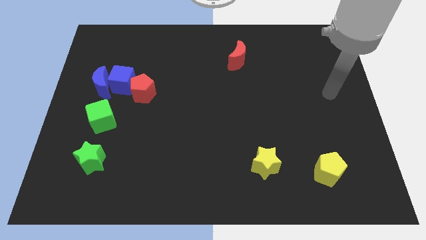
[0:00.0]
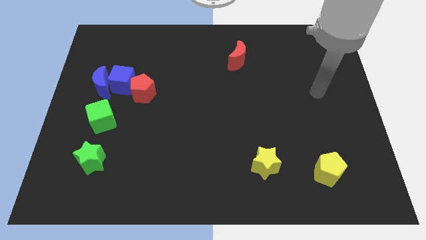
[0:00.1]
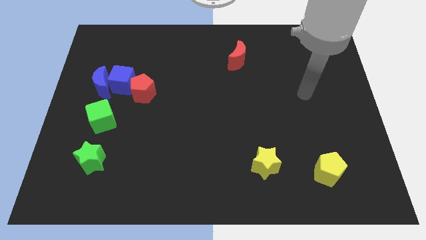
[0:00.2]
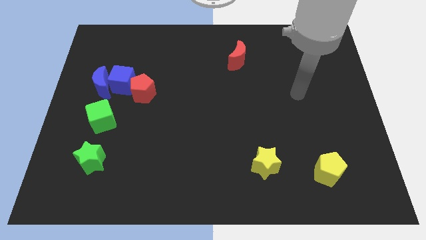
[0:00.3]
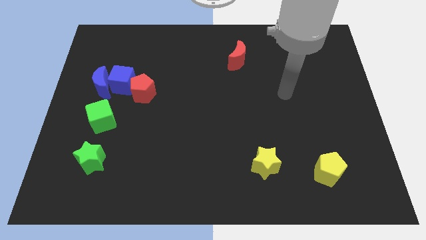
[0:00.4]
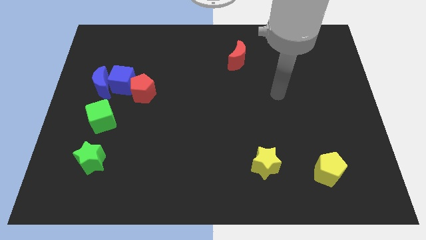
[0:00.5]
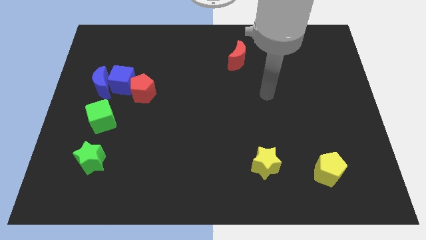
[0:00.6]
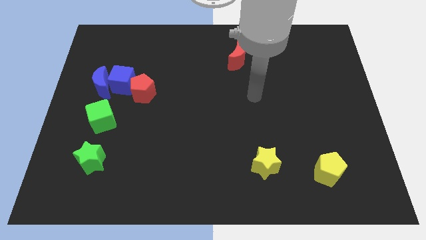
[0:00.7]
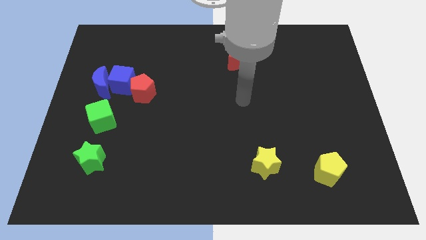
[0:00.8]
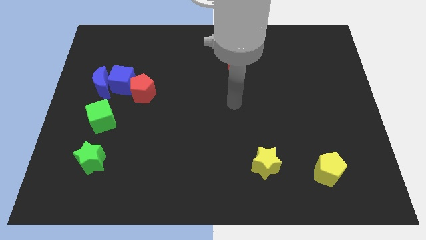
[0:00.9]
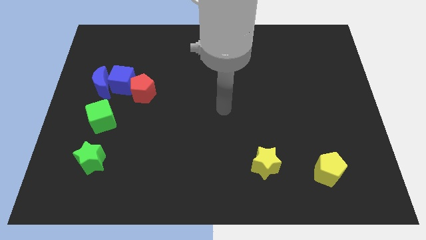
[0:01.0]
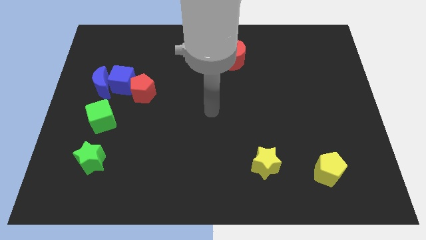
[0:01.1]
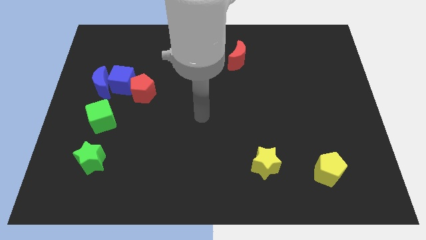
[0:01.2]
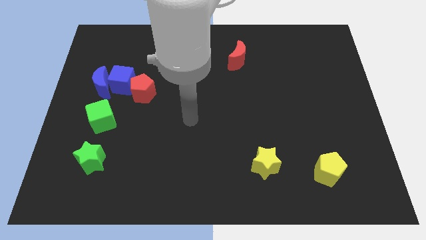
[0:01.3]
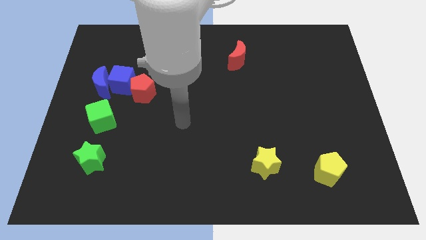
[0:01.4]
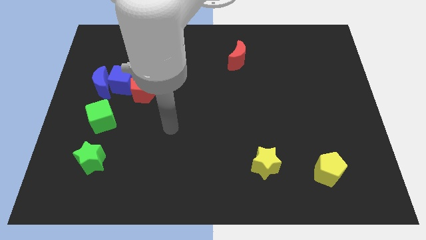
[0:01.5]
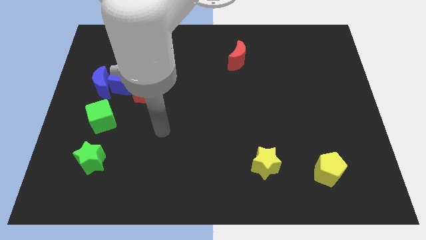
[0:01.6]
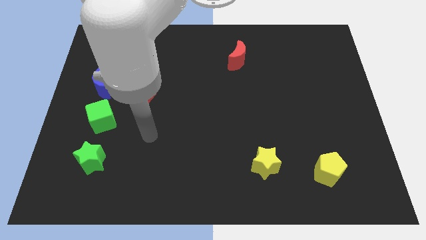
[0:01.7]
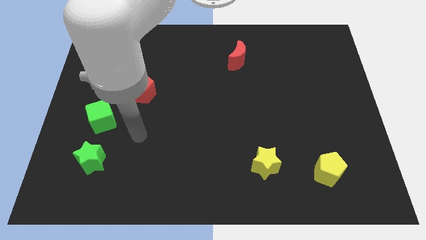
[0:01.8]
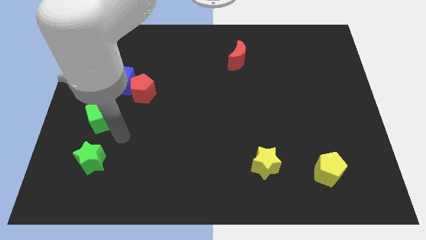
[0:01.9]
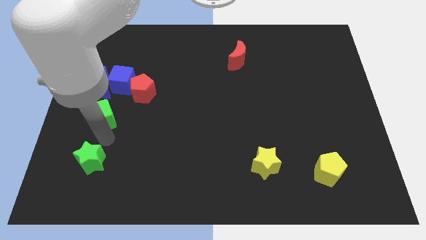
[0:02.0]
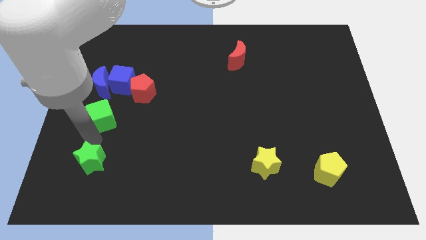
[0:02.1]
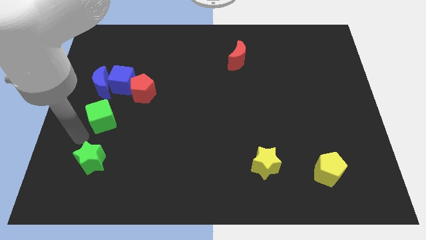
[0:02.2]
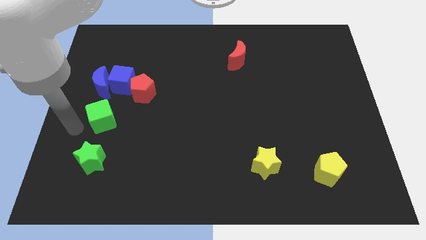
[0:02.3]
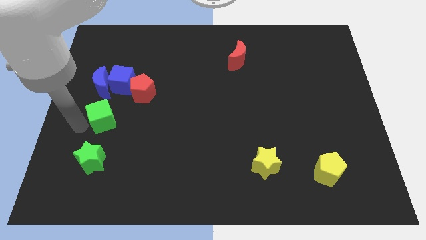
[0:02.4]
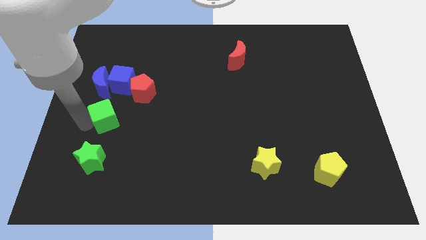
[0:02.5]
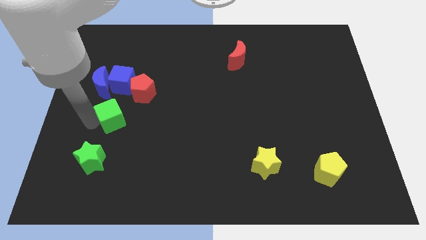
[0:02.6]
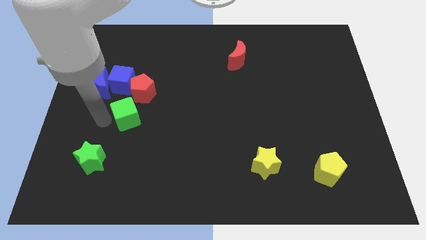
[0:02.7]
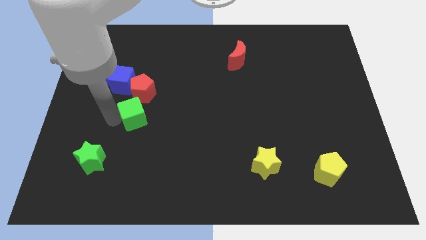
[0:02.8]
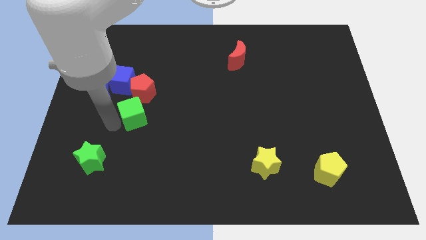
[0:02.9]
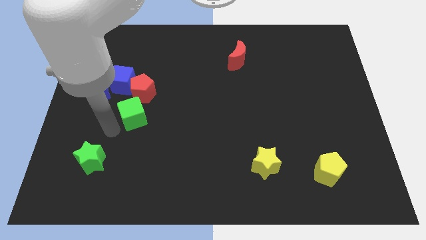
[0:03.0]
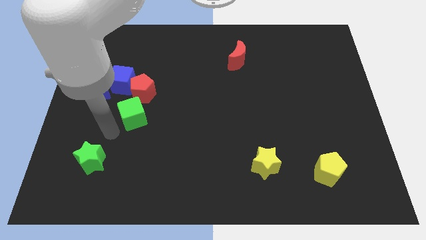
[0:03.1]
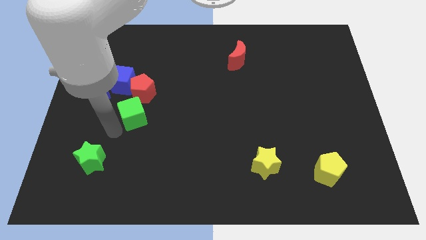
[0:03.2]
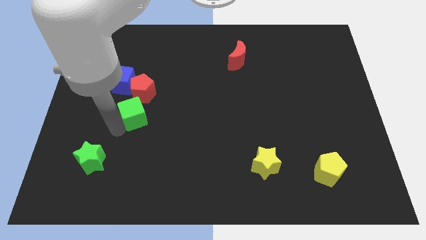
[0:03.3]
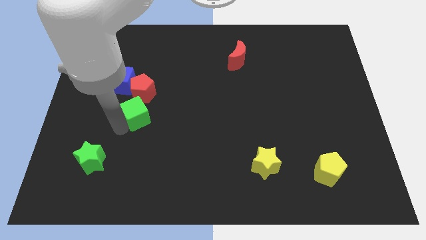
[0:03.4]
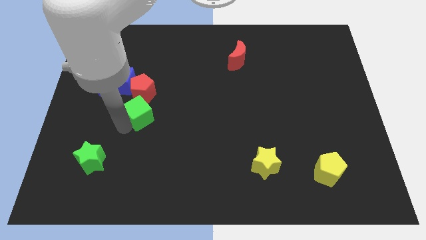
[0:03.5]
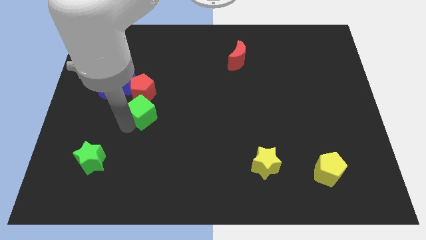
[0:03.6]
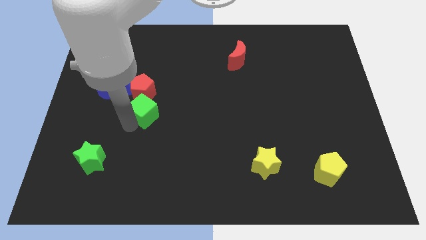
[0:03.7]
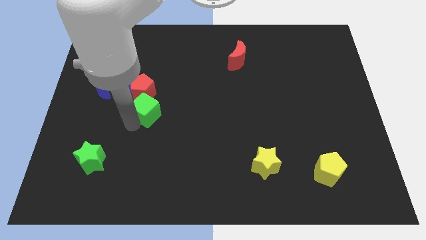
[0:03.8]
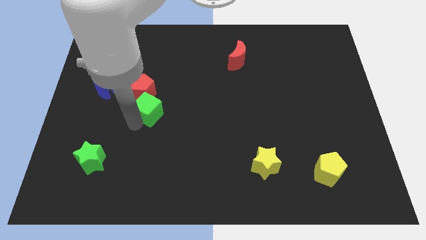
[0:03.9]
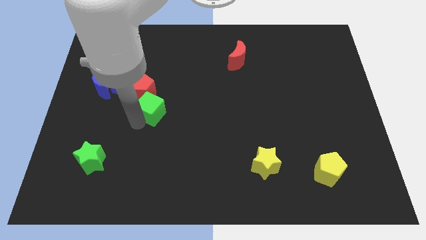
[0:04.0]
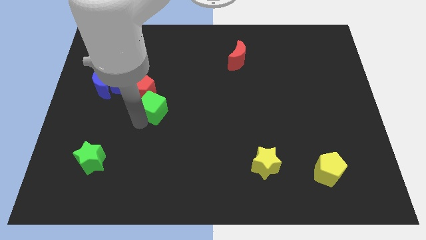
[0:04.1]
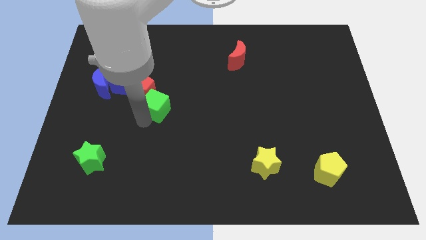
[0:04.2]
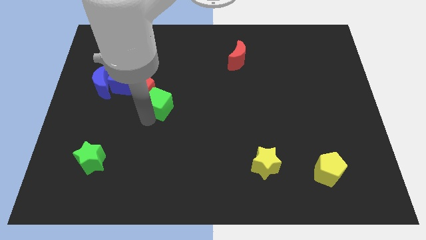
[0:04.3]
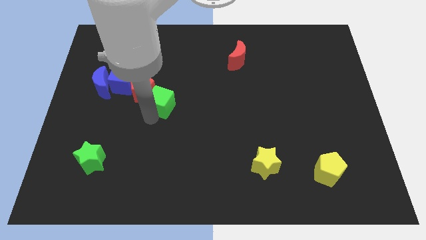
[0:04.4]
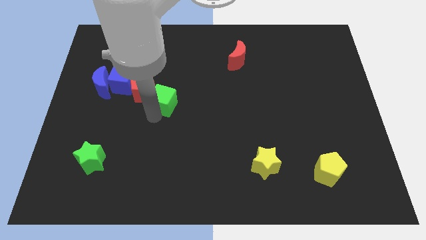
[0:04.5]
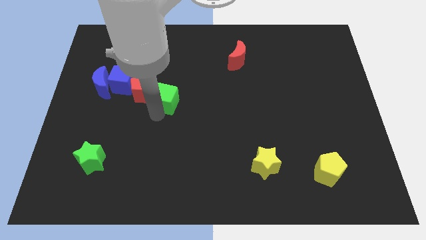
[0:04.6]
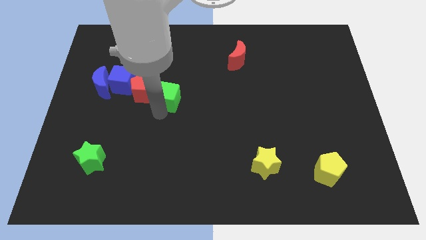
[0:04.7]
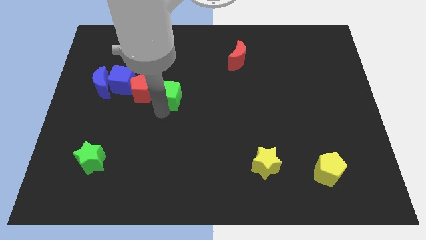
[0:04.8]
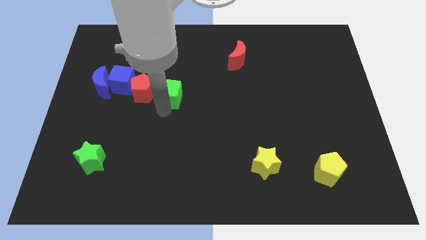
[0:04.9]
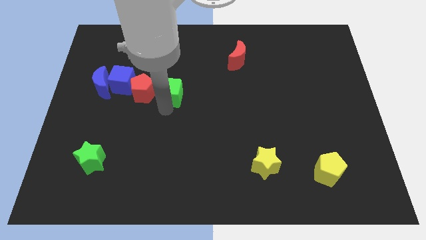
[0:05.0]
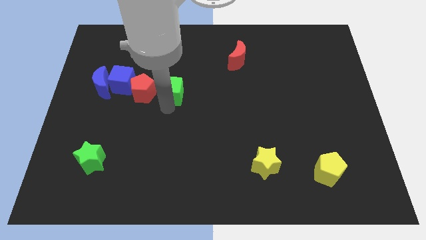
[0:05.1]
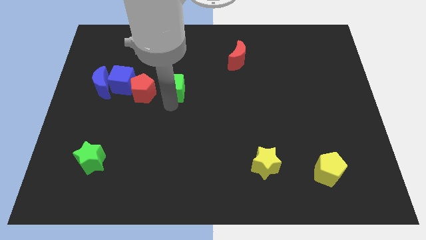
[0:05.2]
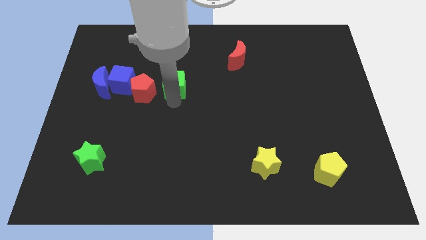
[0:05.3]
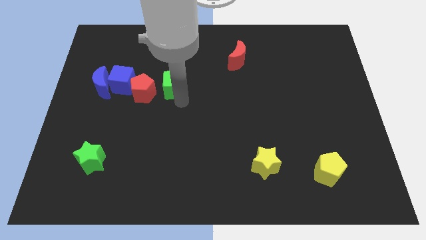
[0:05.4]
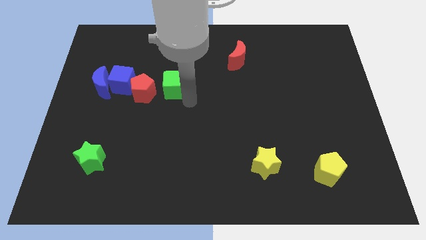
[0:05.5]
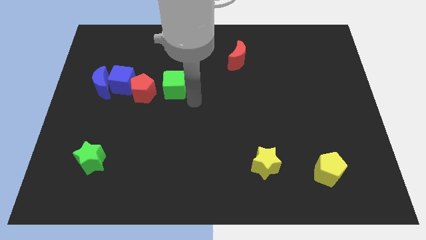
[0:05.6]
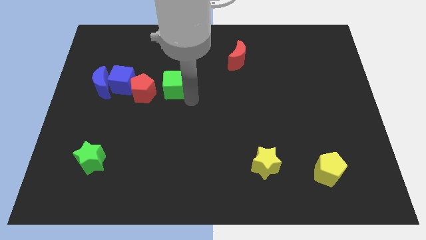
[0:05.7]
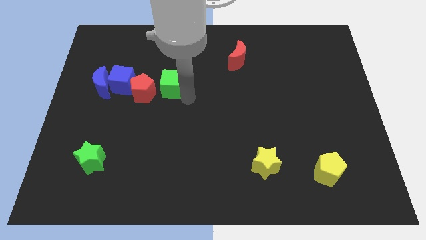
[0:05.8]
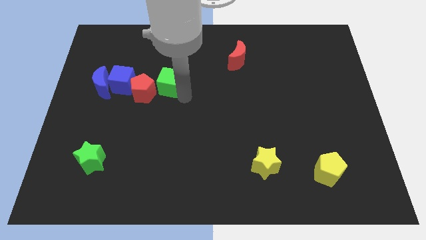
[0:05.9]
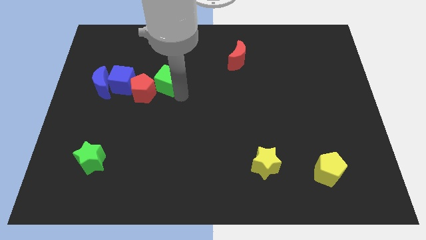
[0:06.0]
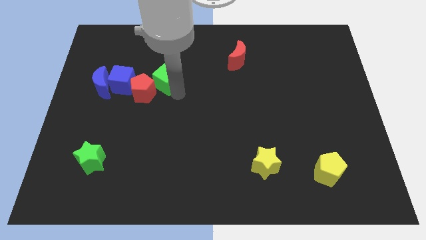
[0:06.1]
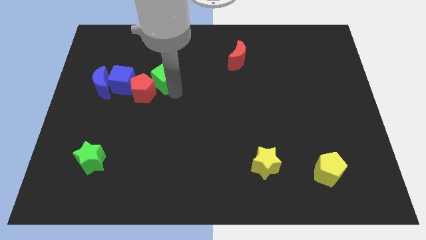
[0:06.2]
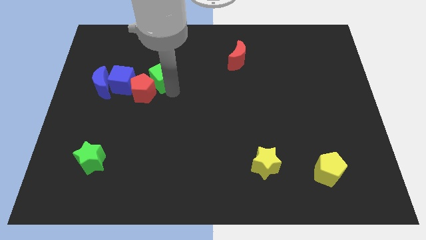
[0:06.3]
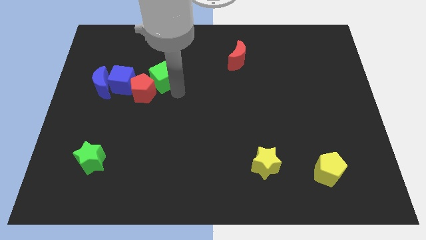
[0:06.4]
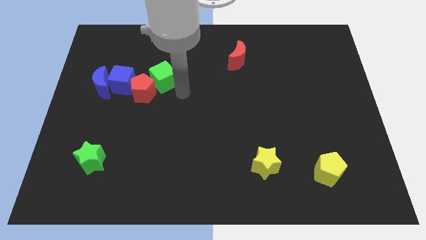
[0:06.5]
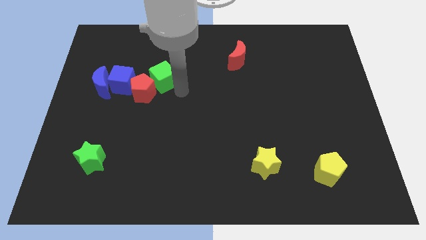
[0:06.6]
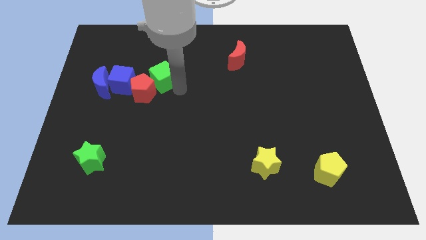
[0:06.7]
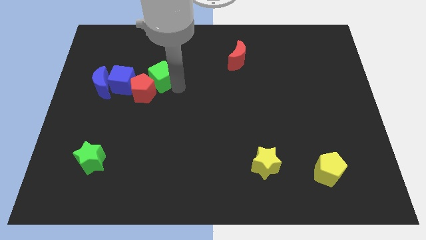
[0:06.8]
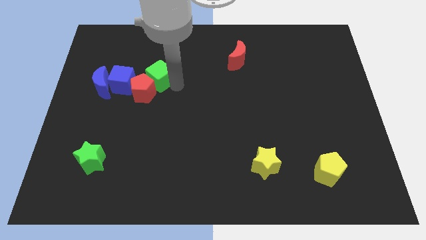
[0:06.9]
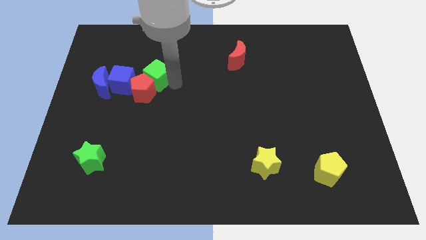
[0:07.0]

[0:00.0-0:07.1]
slide the green cube diagonally up and to the right of the blue cube

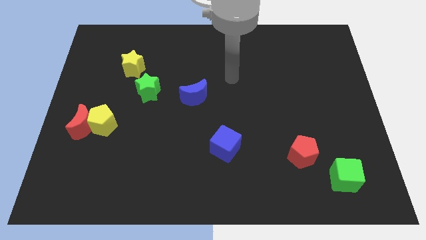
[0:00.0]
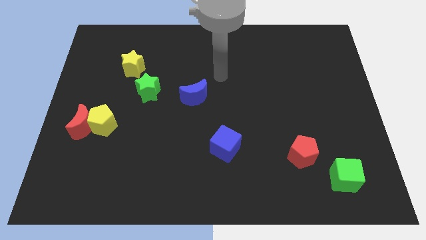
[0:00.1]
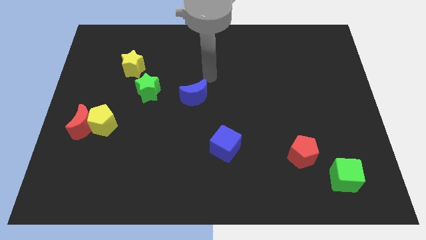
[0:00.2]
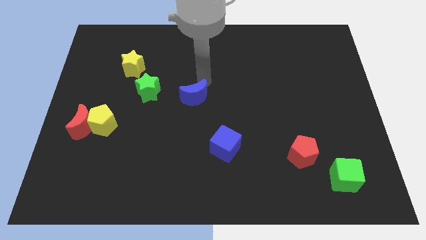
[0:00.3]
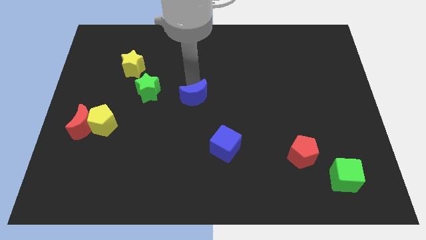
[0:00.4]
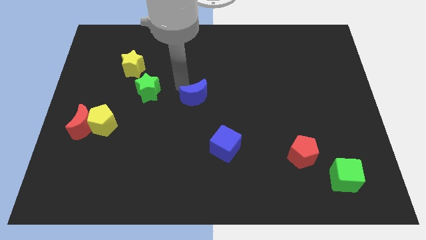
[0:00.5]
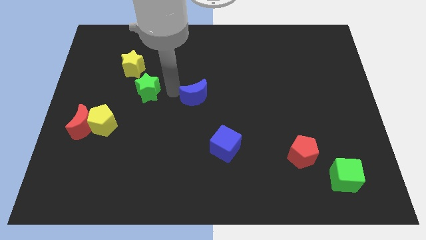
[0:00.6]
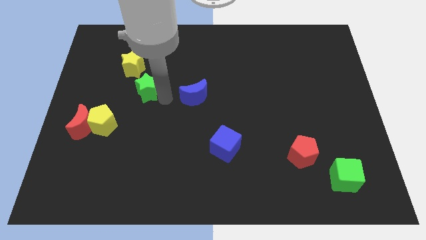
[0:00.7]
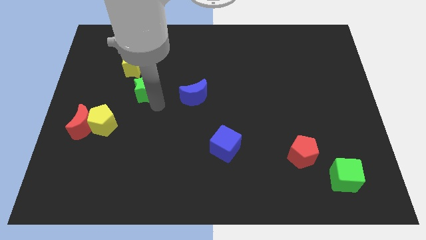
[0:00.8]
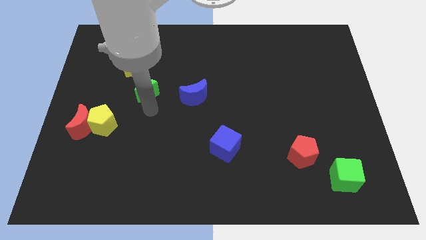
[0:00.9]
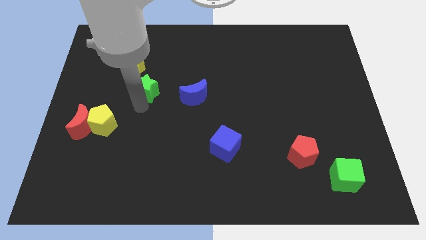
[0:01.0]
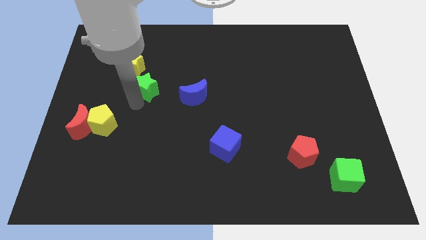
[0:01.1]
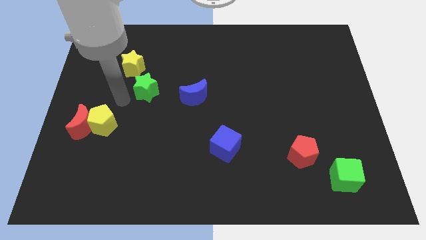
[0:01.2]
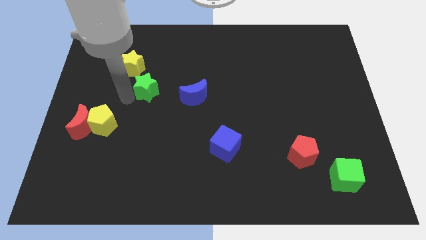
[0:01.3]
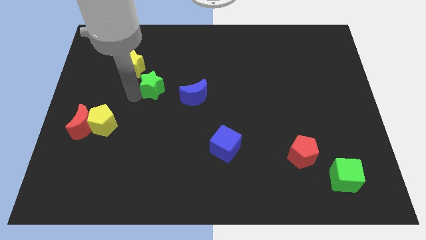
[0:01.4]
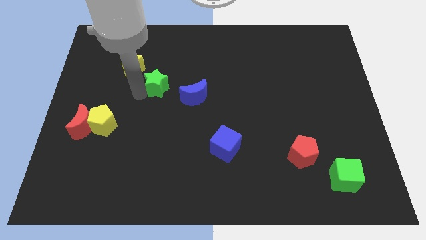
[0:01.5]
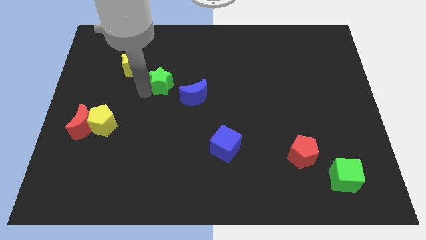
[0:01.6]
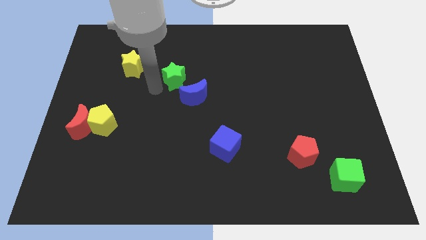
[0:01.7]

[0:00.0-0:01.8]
push the green star above the blue moon
